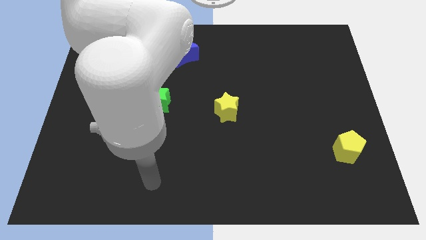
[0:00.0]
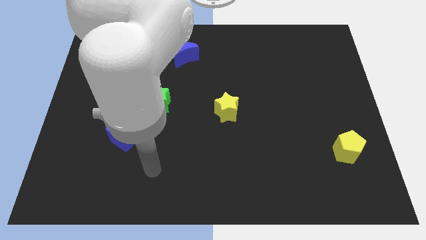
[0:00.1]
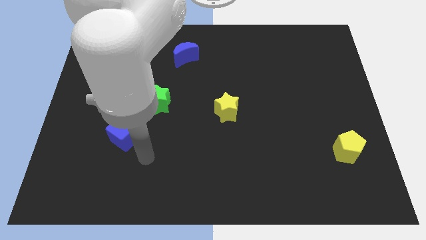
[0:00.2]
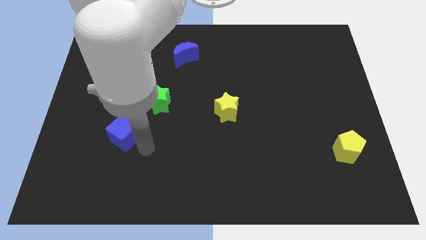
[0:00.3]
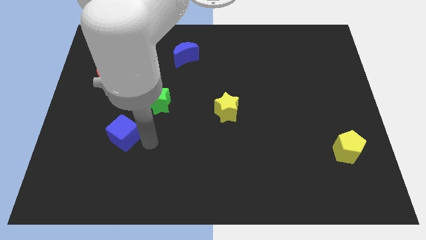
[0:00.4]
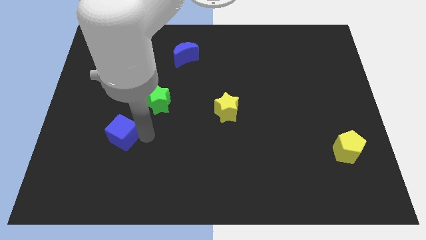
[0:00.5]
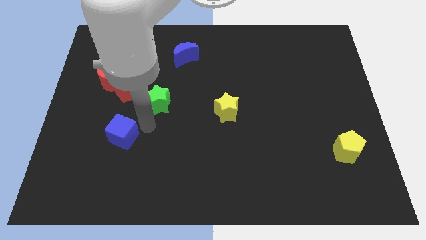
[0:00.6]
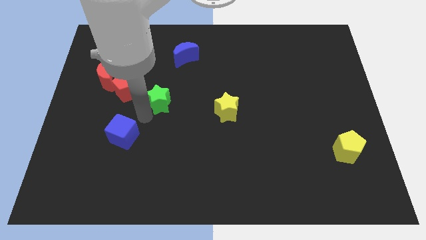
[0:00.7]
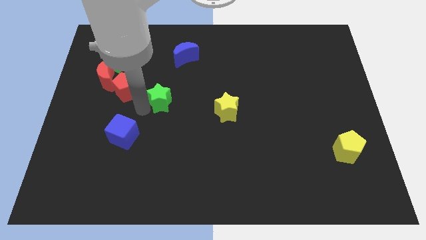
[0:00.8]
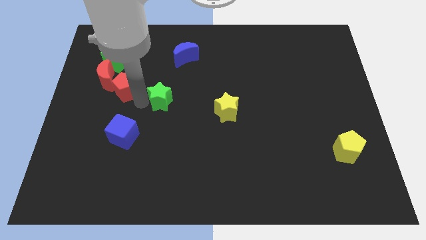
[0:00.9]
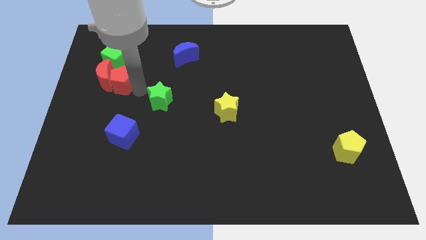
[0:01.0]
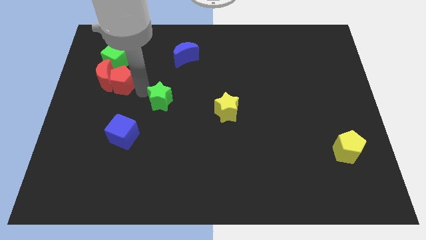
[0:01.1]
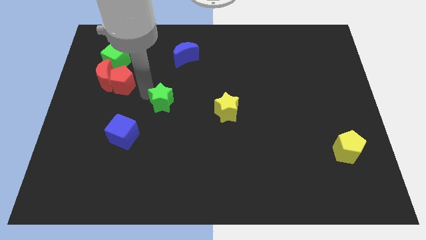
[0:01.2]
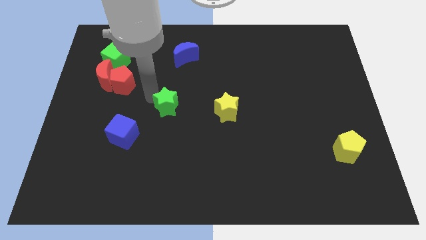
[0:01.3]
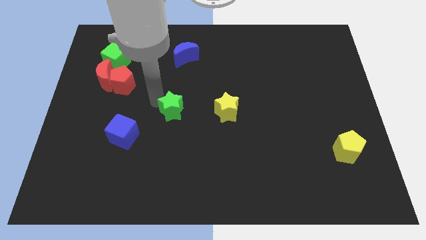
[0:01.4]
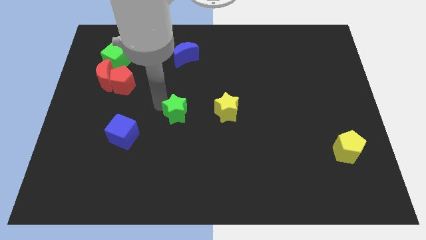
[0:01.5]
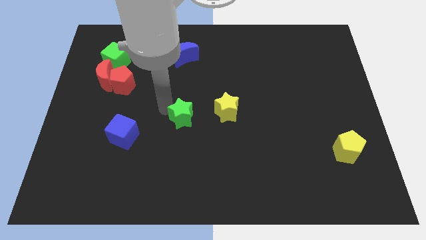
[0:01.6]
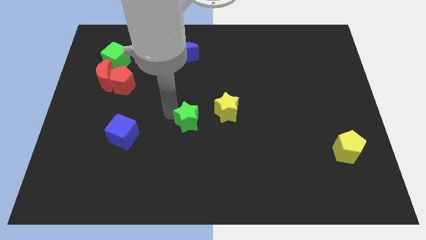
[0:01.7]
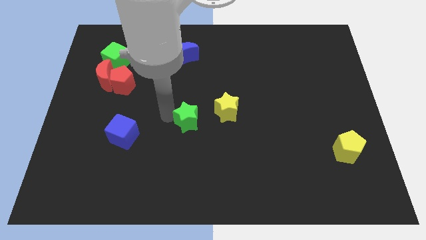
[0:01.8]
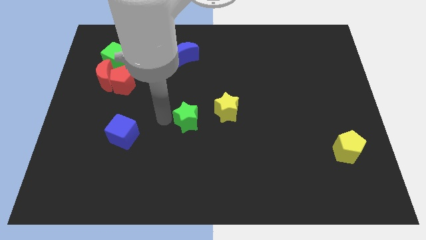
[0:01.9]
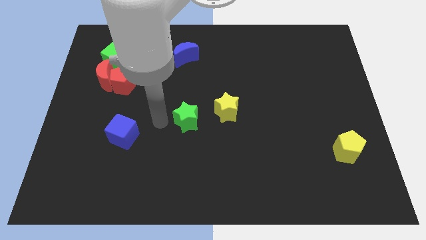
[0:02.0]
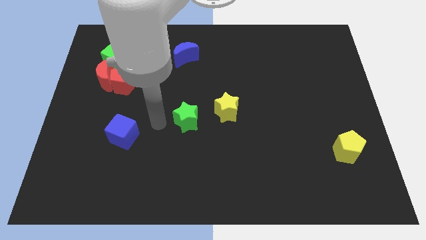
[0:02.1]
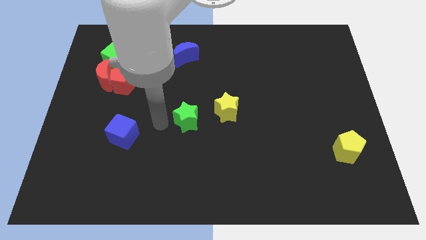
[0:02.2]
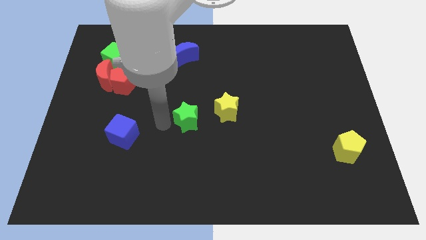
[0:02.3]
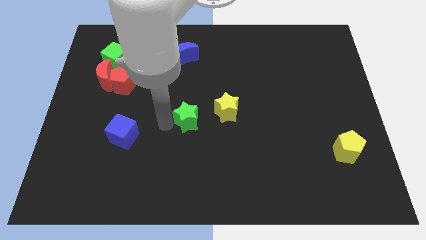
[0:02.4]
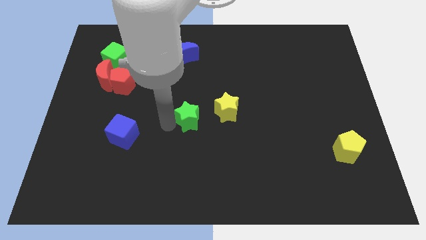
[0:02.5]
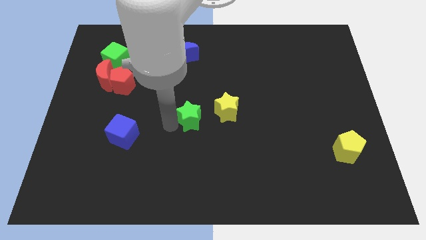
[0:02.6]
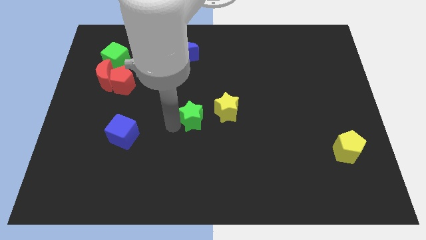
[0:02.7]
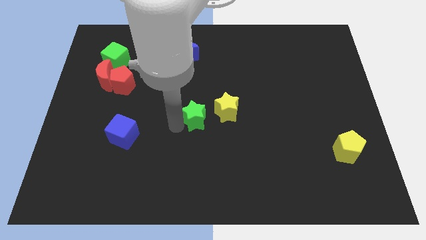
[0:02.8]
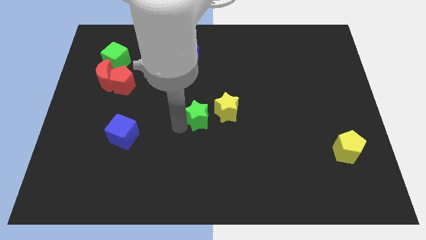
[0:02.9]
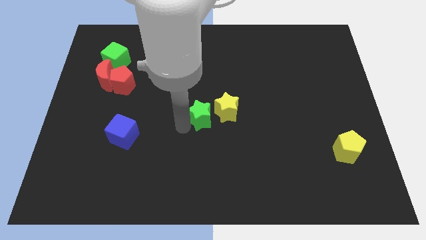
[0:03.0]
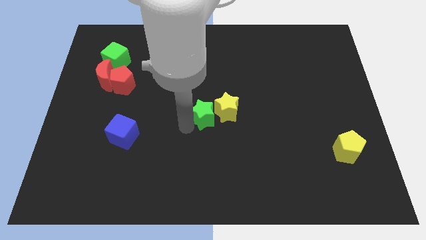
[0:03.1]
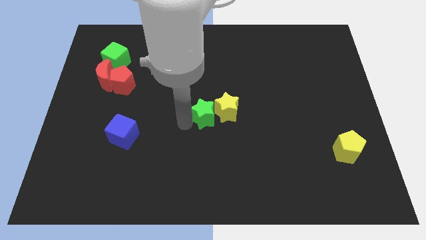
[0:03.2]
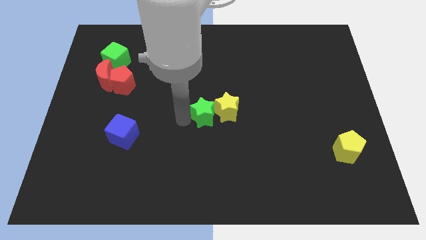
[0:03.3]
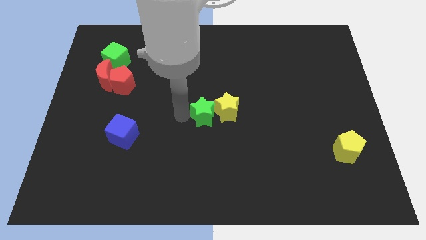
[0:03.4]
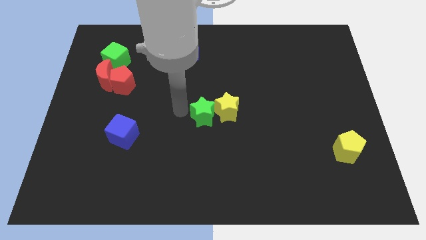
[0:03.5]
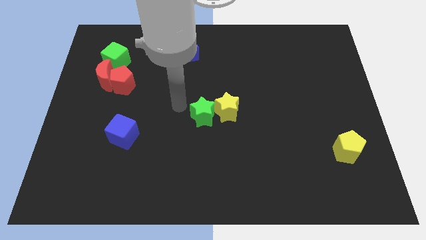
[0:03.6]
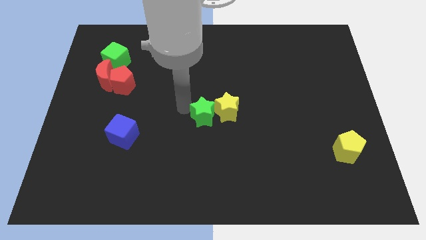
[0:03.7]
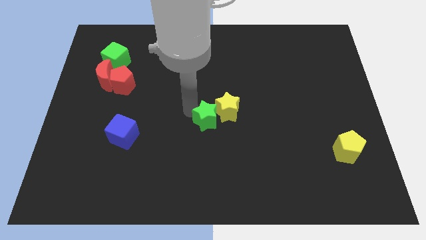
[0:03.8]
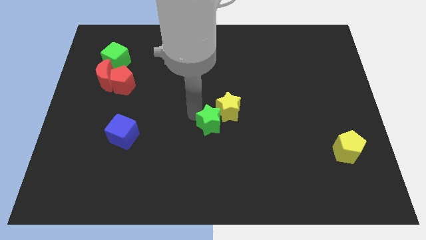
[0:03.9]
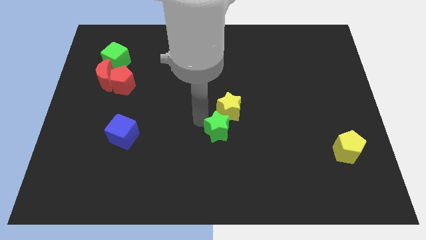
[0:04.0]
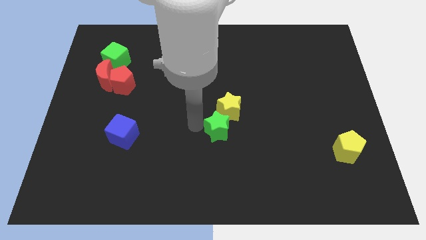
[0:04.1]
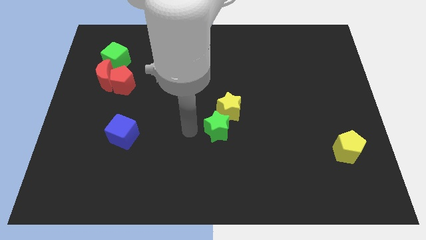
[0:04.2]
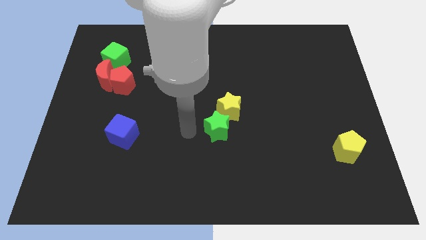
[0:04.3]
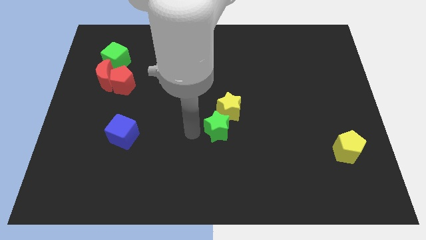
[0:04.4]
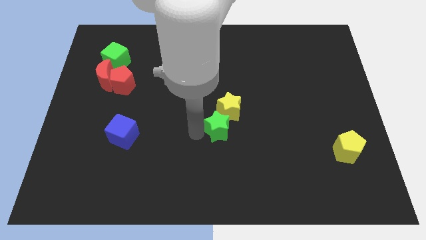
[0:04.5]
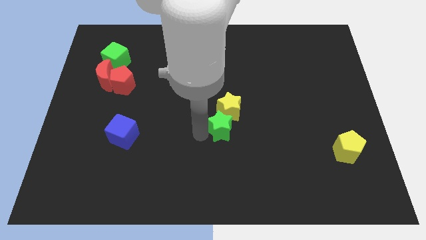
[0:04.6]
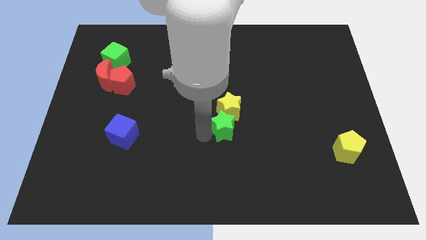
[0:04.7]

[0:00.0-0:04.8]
move the green star to the bottom right side of the yellow star

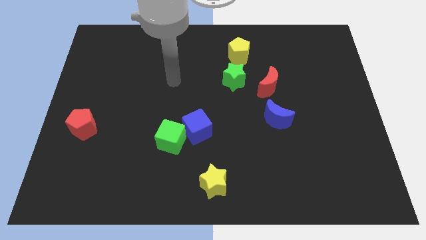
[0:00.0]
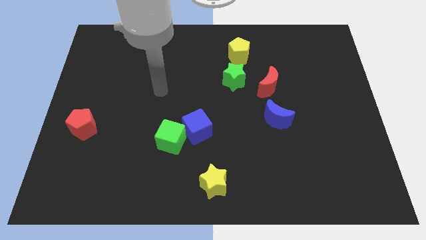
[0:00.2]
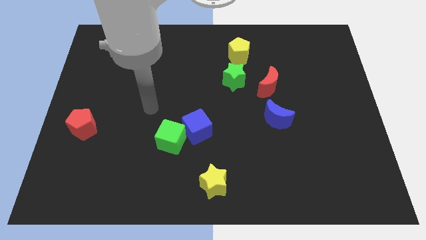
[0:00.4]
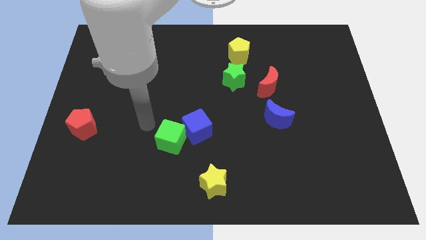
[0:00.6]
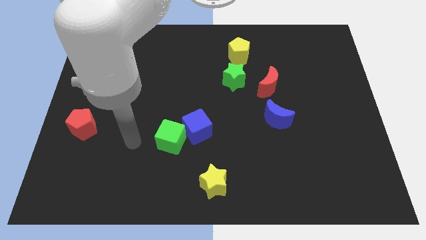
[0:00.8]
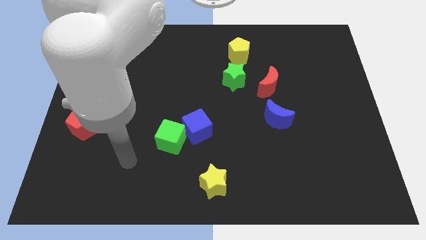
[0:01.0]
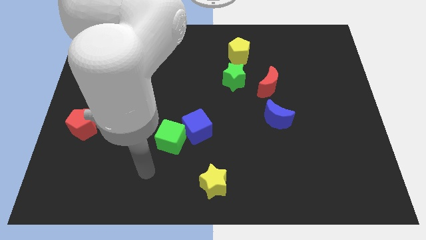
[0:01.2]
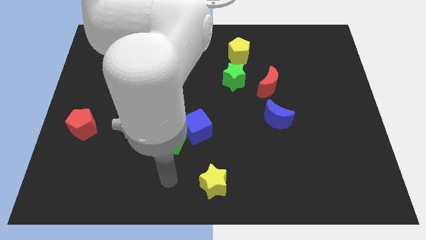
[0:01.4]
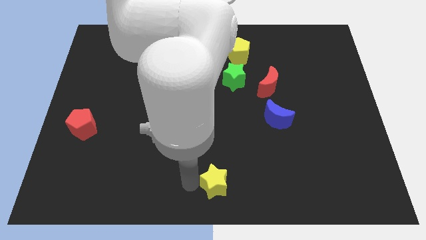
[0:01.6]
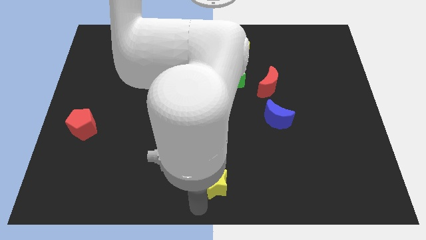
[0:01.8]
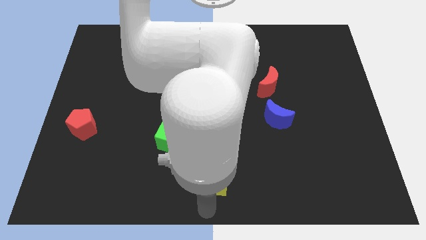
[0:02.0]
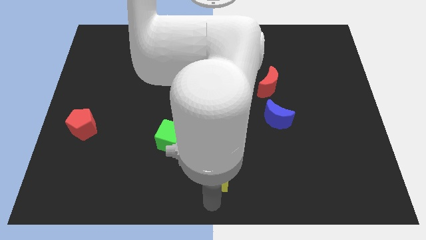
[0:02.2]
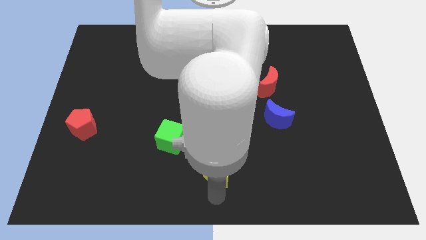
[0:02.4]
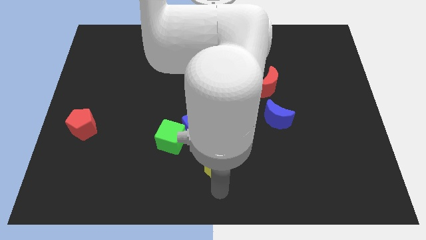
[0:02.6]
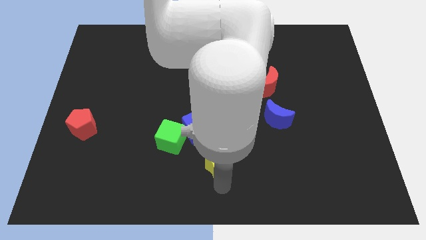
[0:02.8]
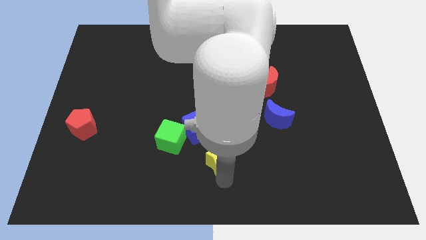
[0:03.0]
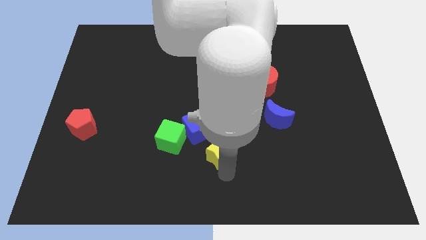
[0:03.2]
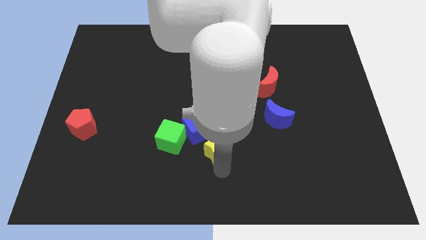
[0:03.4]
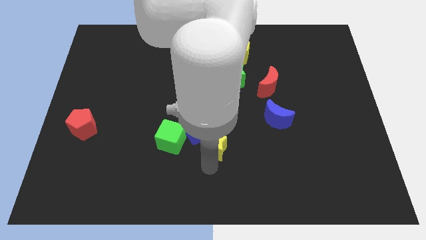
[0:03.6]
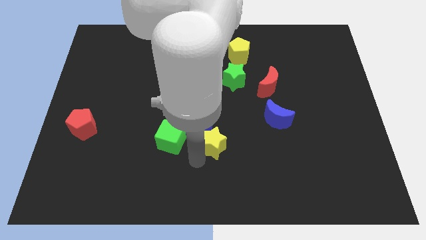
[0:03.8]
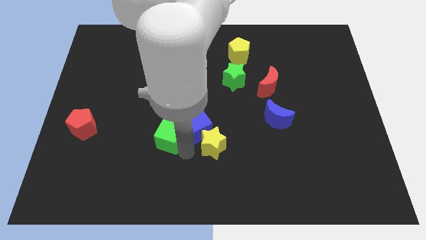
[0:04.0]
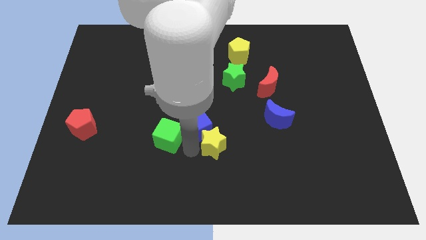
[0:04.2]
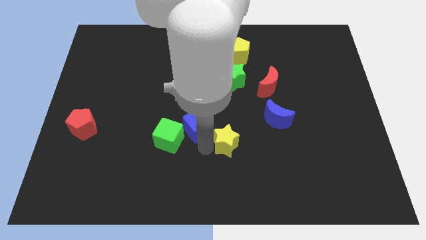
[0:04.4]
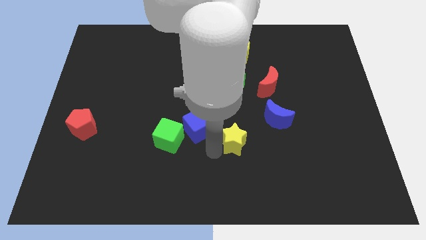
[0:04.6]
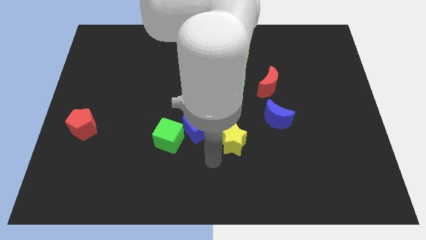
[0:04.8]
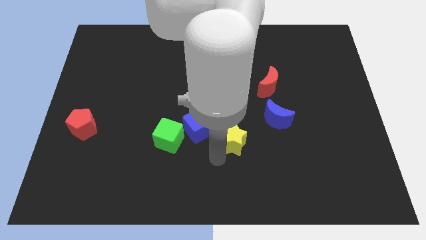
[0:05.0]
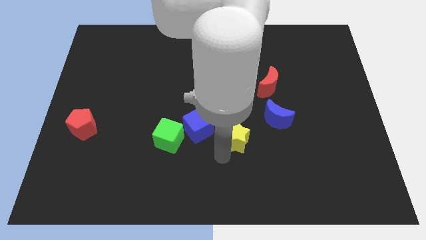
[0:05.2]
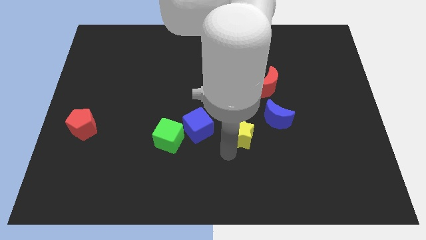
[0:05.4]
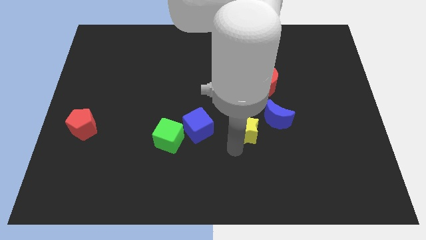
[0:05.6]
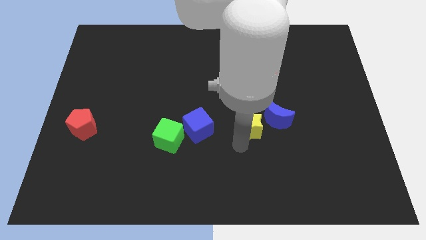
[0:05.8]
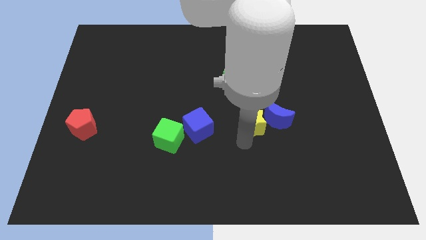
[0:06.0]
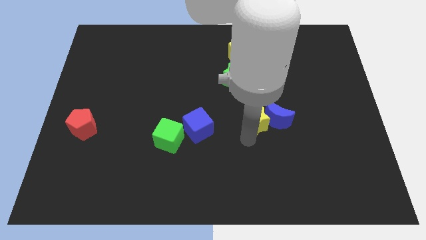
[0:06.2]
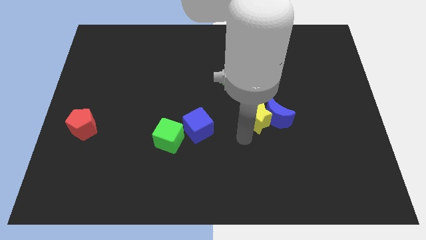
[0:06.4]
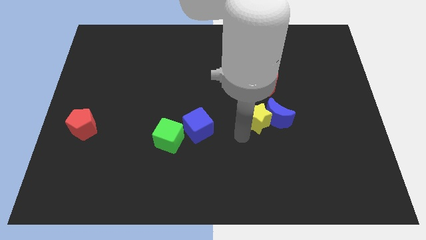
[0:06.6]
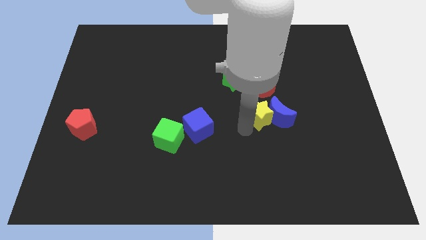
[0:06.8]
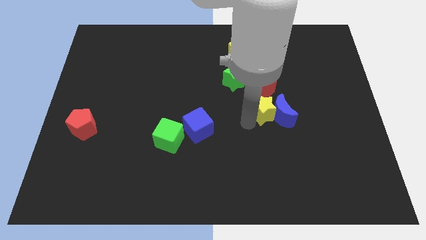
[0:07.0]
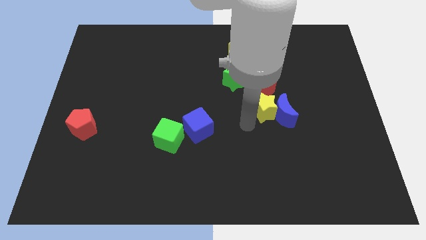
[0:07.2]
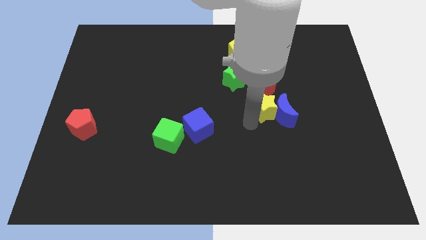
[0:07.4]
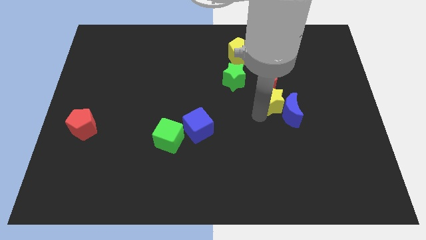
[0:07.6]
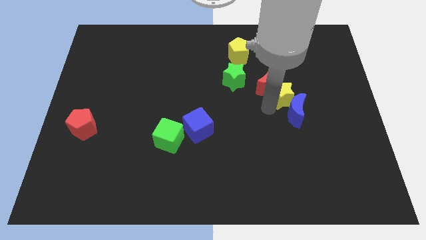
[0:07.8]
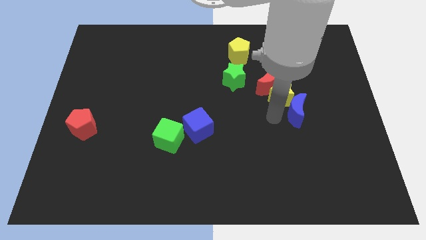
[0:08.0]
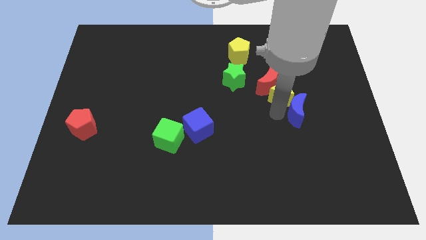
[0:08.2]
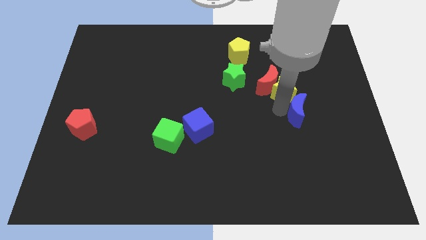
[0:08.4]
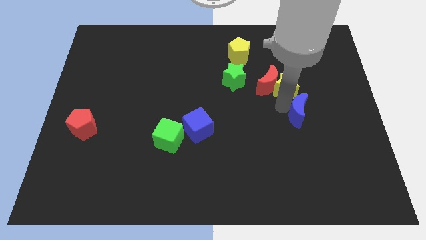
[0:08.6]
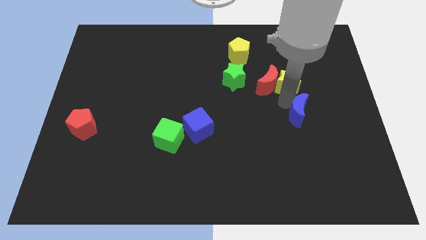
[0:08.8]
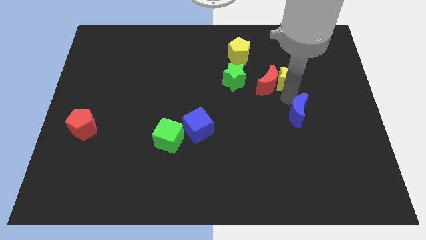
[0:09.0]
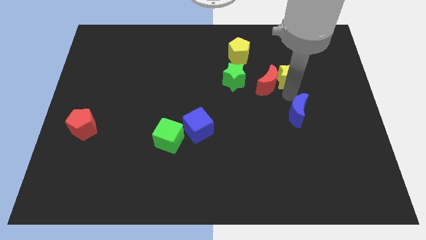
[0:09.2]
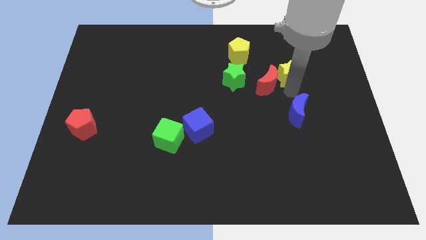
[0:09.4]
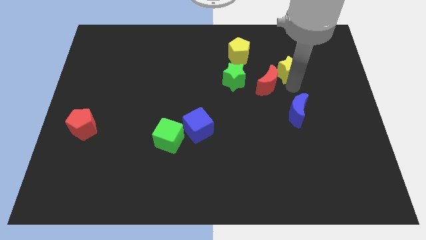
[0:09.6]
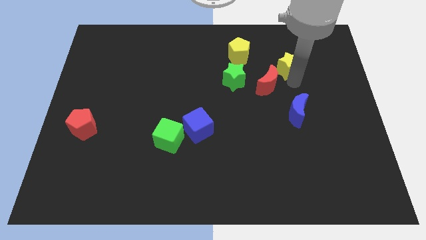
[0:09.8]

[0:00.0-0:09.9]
move the yellow star to the right side of the yellow pentagon
